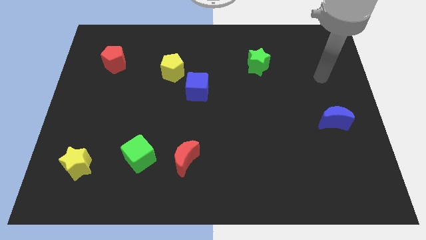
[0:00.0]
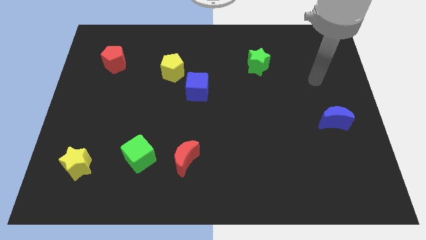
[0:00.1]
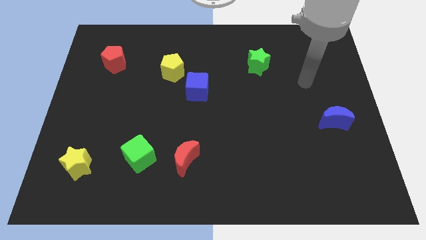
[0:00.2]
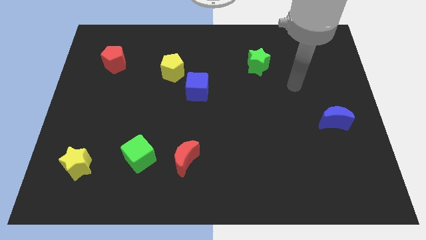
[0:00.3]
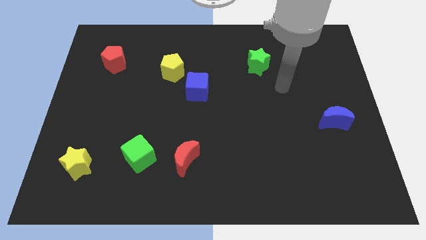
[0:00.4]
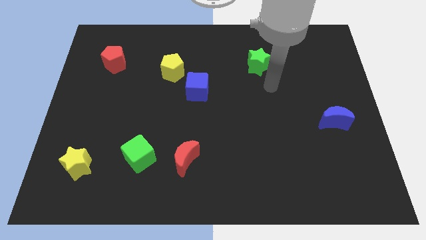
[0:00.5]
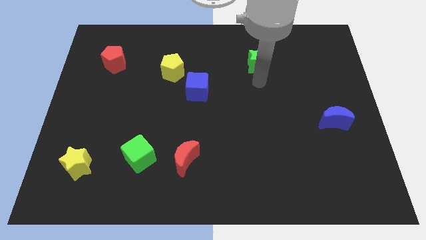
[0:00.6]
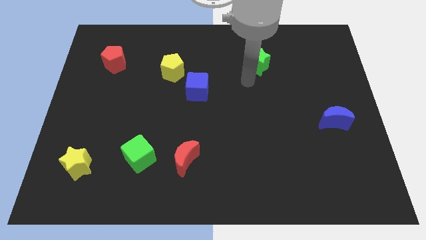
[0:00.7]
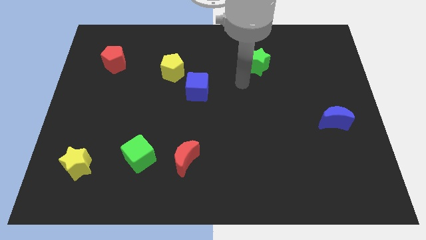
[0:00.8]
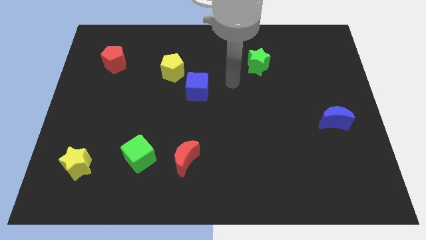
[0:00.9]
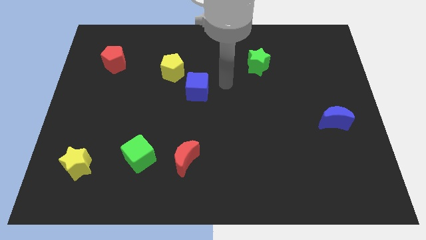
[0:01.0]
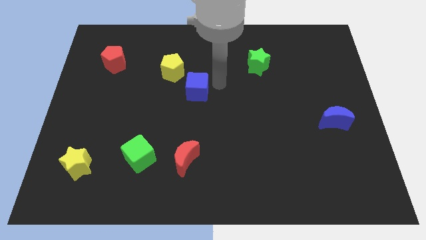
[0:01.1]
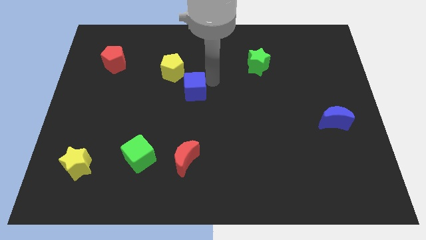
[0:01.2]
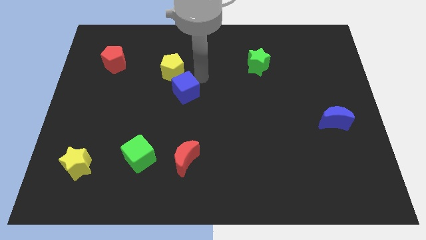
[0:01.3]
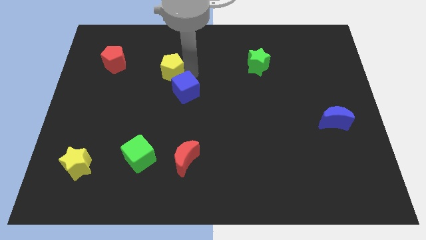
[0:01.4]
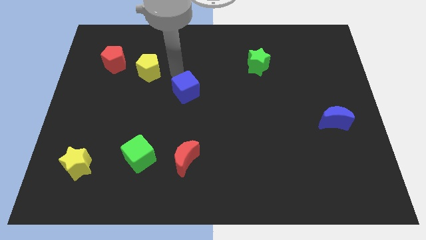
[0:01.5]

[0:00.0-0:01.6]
pull the blue cube apart from the yellow pentagon

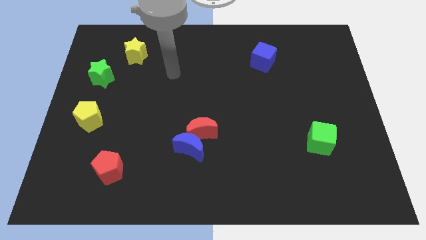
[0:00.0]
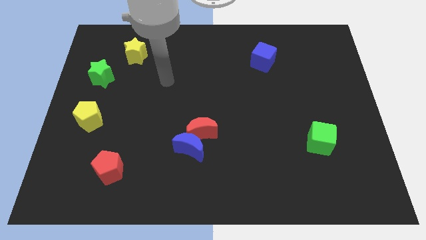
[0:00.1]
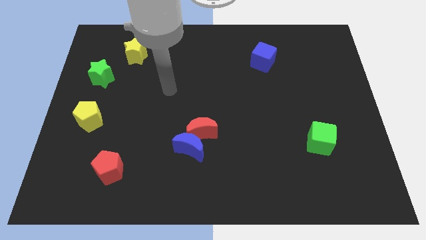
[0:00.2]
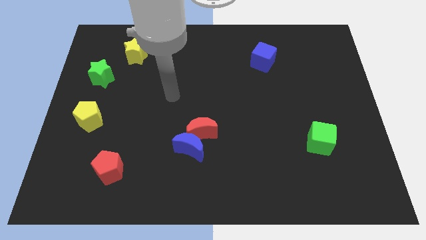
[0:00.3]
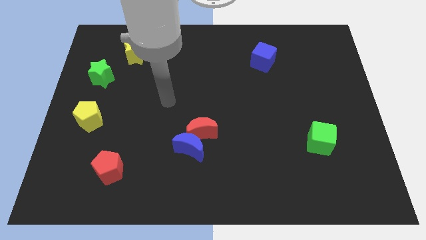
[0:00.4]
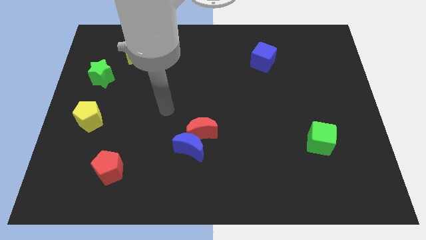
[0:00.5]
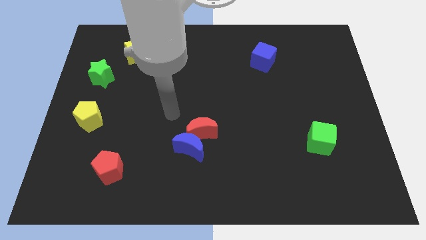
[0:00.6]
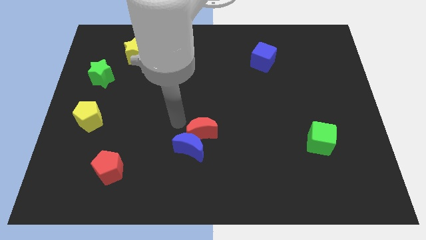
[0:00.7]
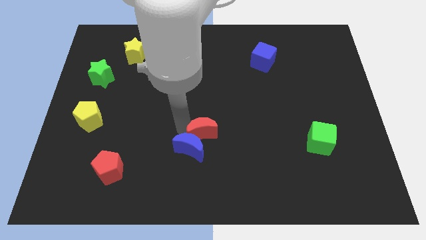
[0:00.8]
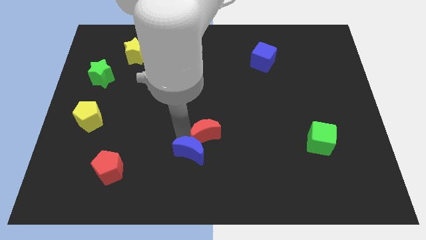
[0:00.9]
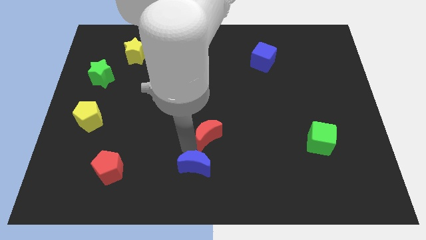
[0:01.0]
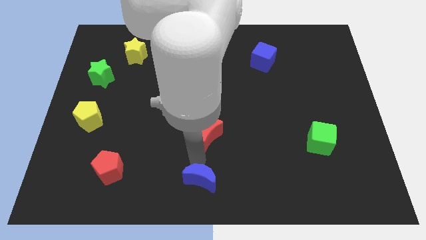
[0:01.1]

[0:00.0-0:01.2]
separate the red moon from the blue moon

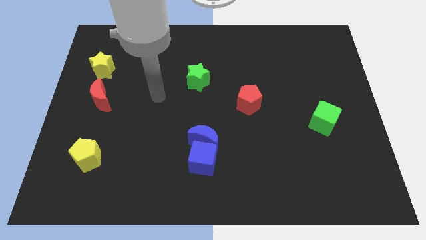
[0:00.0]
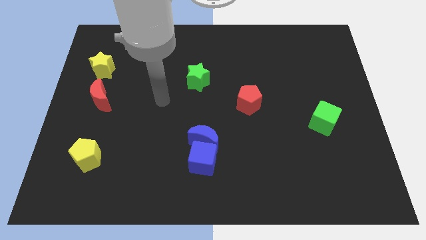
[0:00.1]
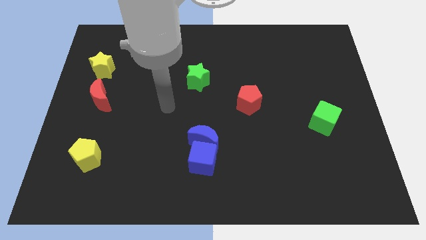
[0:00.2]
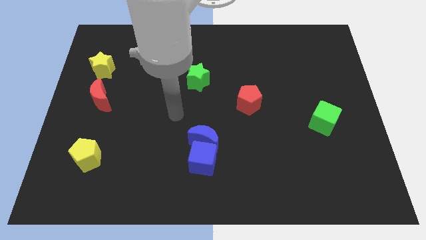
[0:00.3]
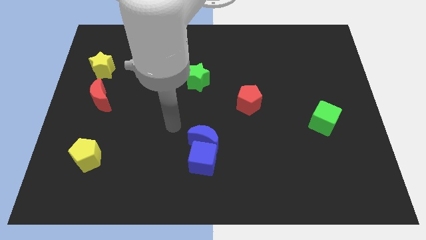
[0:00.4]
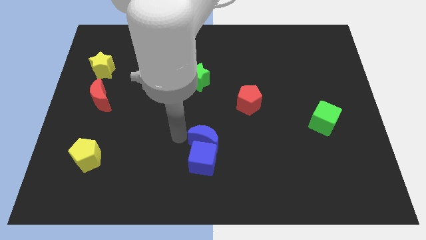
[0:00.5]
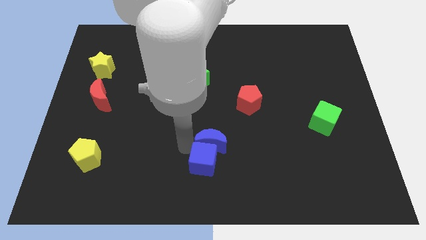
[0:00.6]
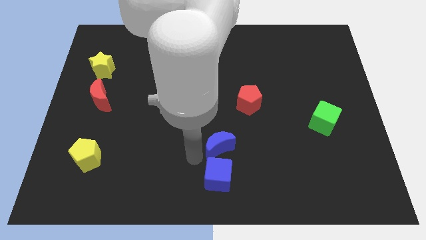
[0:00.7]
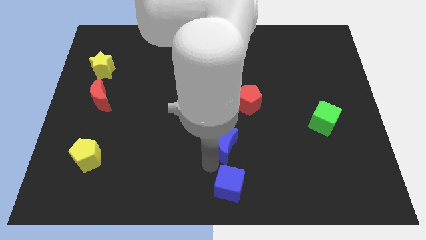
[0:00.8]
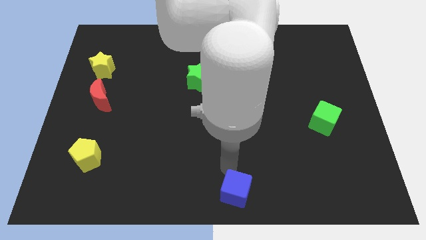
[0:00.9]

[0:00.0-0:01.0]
pull the blue moon apart from the blue cube

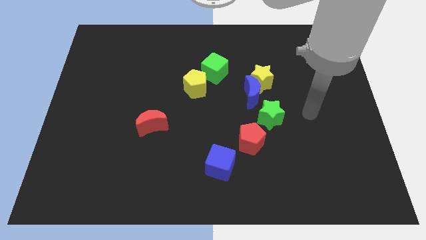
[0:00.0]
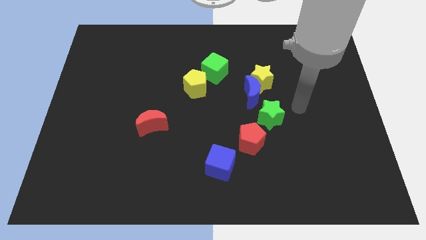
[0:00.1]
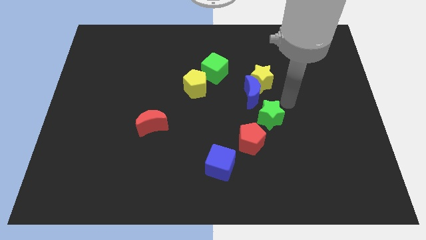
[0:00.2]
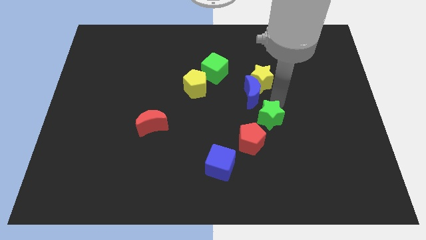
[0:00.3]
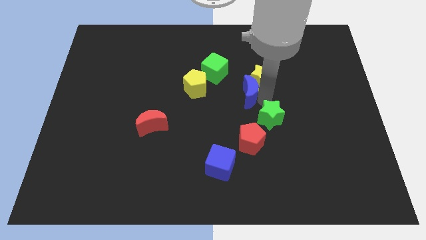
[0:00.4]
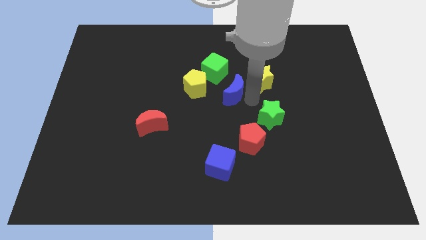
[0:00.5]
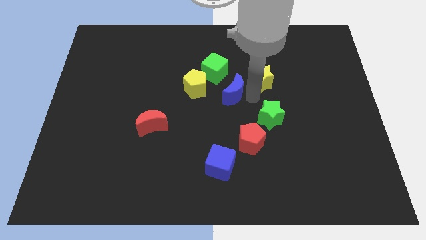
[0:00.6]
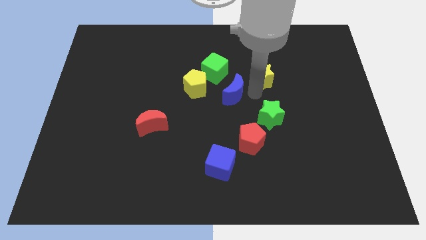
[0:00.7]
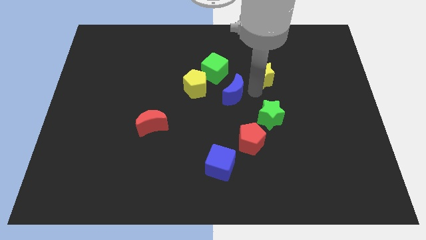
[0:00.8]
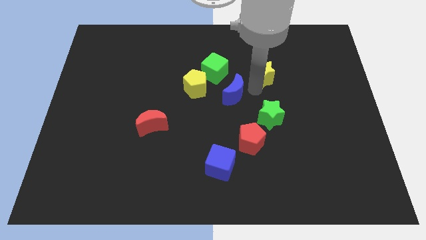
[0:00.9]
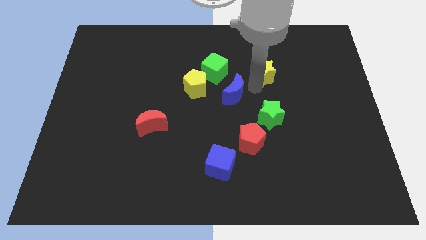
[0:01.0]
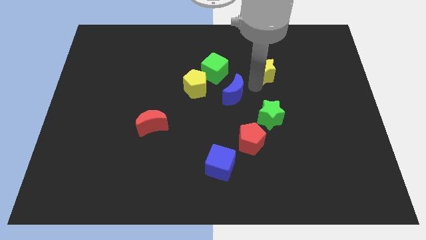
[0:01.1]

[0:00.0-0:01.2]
move the yellow star away from the blue moon

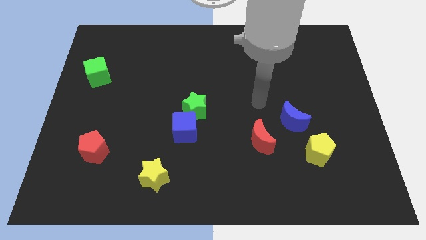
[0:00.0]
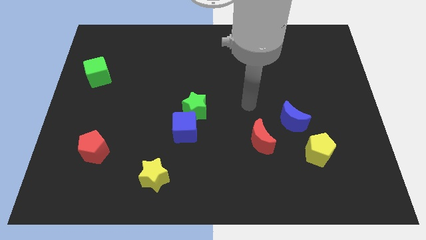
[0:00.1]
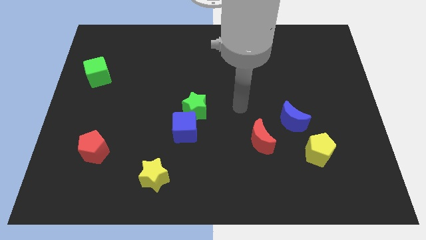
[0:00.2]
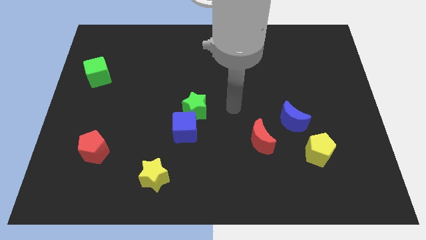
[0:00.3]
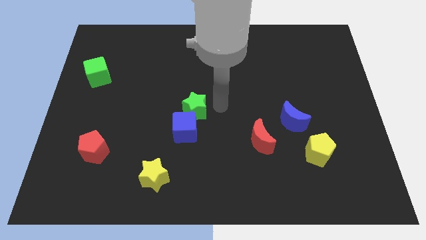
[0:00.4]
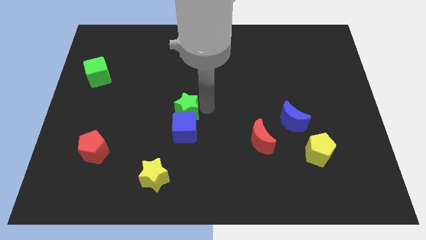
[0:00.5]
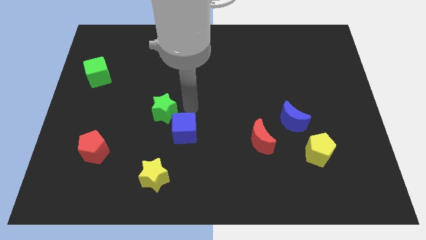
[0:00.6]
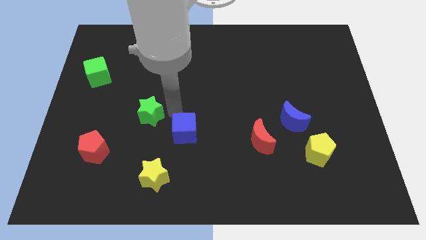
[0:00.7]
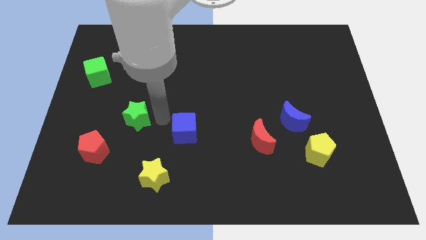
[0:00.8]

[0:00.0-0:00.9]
separate the blue cube from the green star

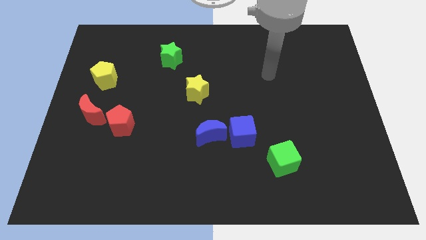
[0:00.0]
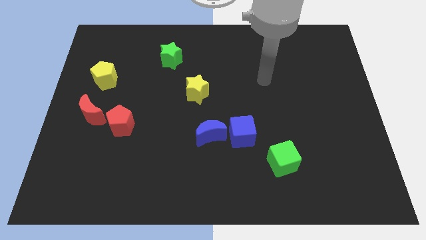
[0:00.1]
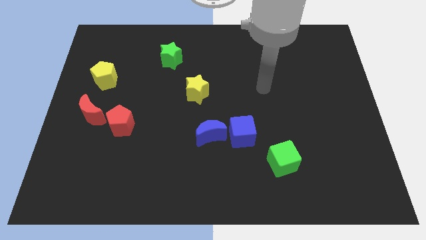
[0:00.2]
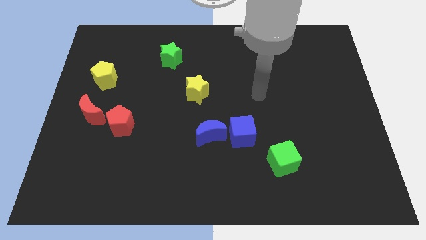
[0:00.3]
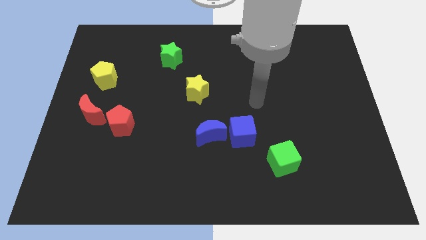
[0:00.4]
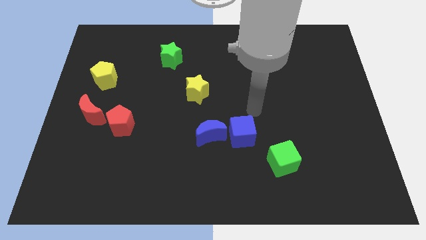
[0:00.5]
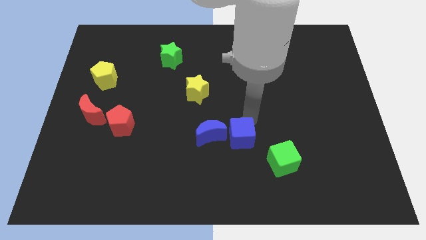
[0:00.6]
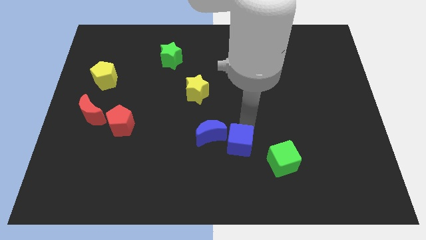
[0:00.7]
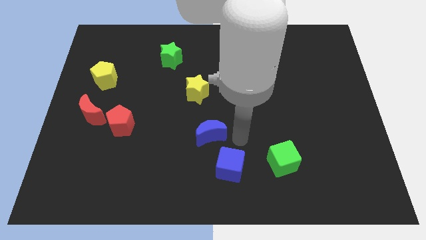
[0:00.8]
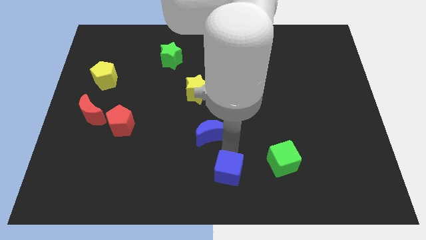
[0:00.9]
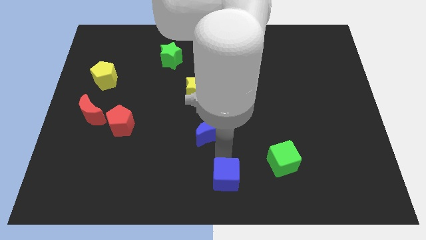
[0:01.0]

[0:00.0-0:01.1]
move the blue moon away from the blue cube

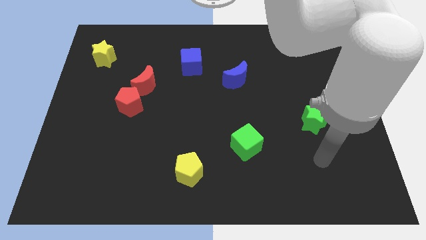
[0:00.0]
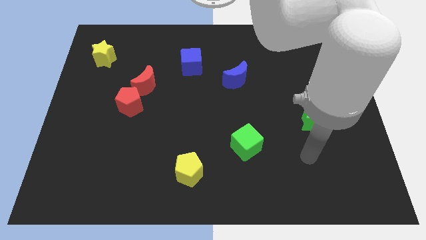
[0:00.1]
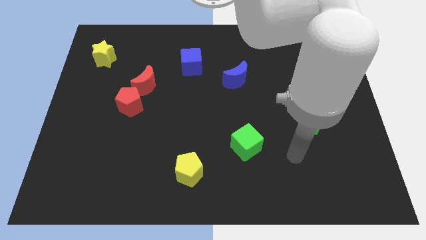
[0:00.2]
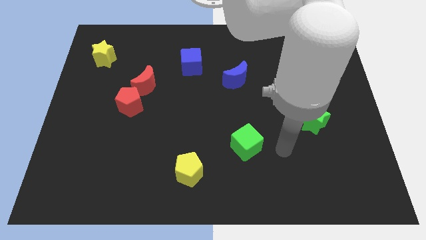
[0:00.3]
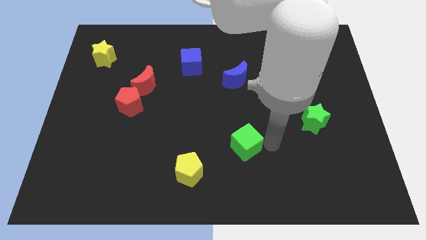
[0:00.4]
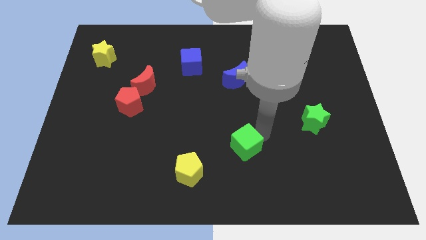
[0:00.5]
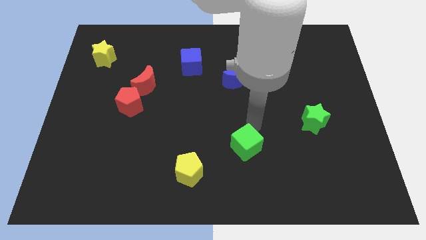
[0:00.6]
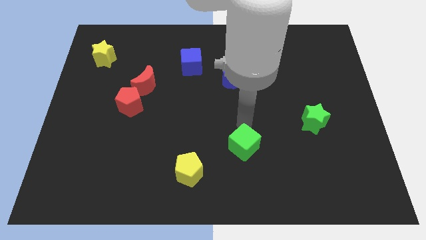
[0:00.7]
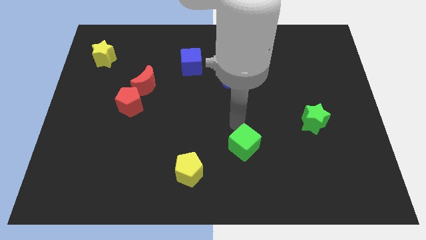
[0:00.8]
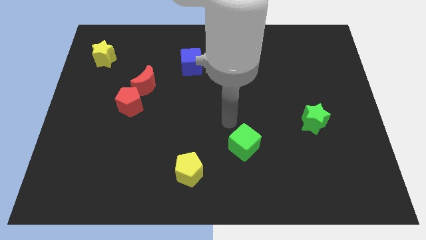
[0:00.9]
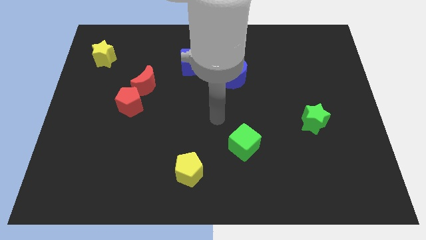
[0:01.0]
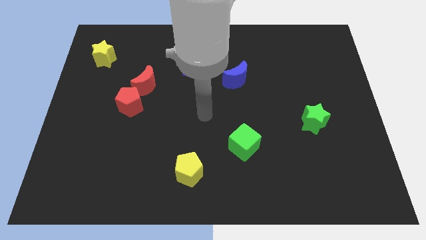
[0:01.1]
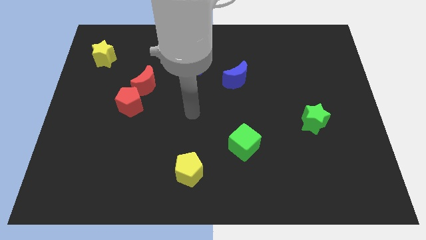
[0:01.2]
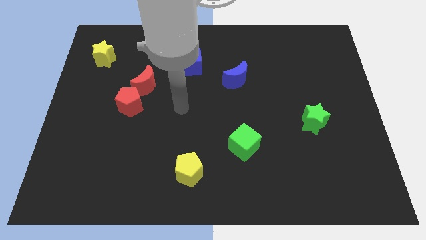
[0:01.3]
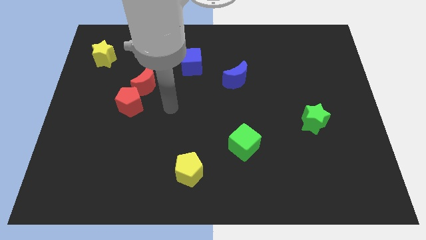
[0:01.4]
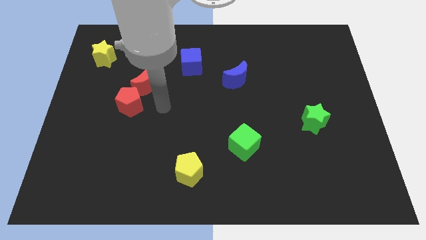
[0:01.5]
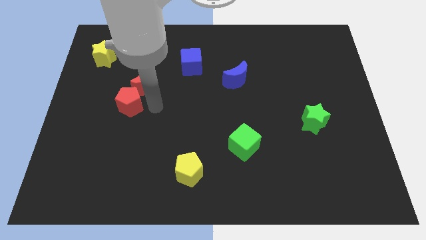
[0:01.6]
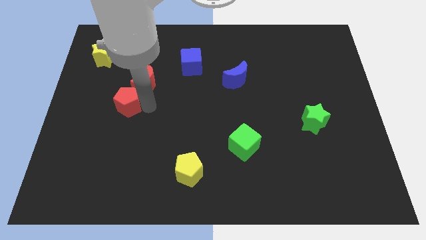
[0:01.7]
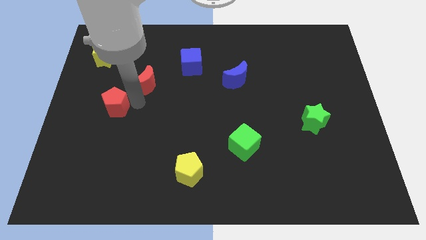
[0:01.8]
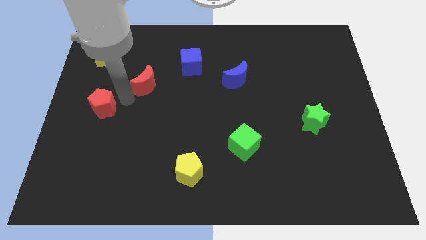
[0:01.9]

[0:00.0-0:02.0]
pull the red moon apart from the red pentagon

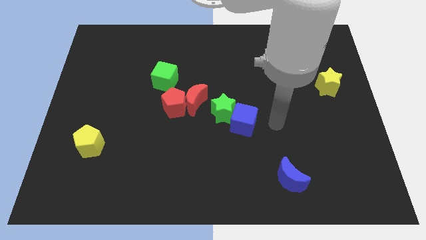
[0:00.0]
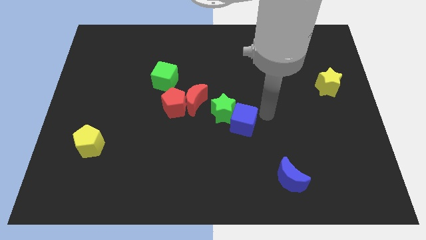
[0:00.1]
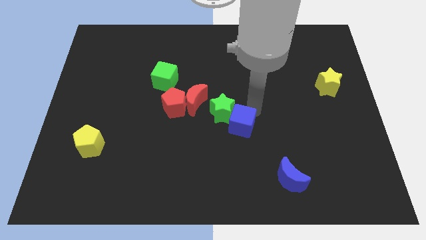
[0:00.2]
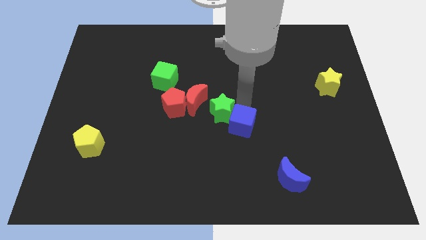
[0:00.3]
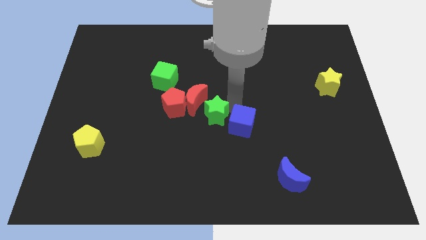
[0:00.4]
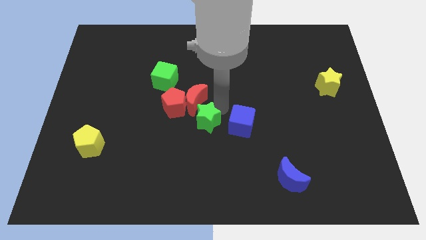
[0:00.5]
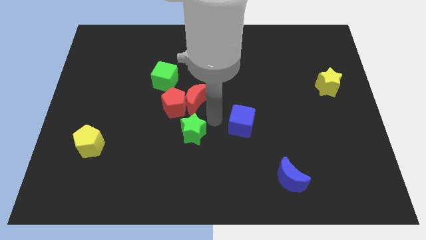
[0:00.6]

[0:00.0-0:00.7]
pull the blue cube apart from the green star
